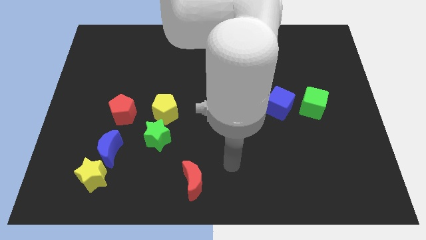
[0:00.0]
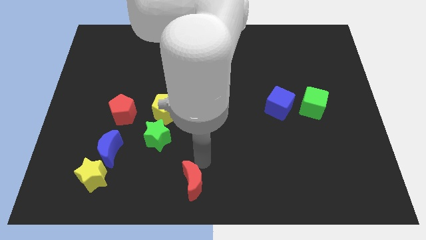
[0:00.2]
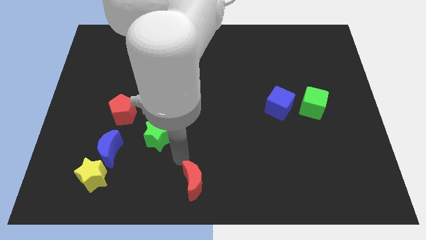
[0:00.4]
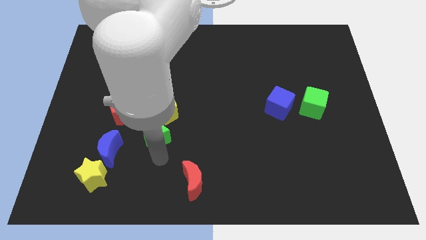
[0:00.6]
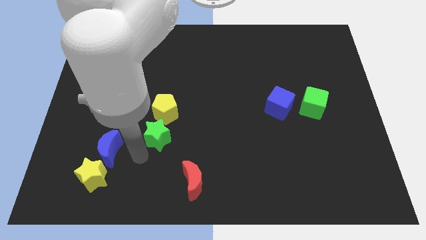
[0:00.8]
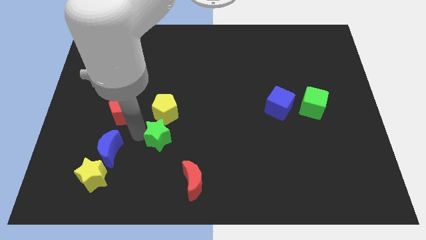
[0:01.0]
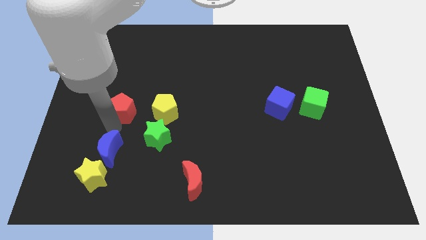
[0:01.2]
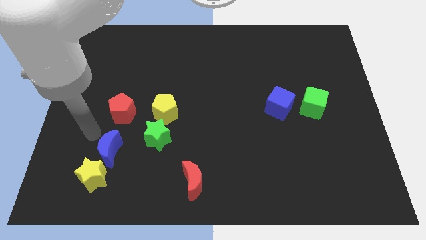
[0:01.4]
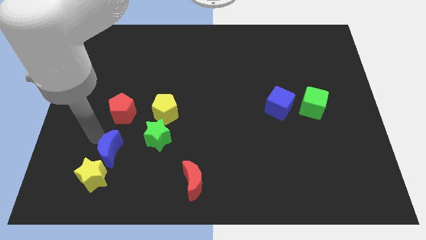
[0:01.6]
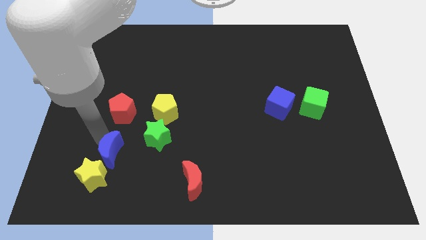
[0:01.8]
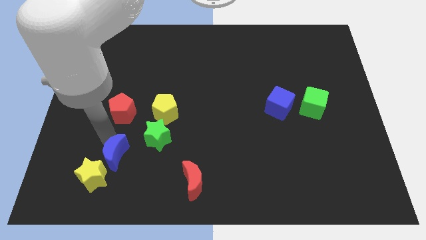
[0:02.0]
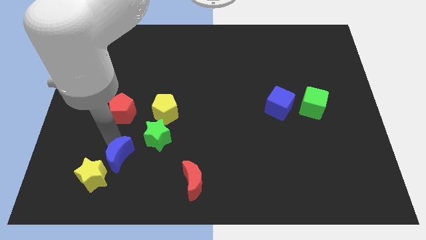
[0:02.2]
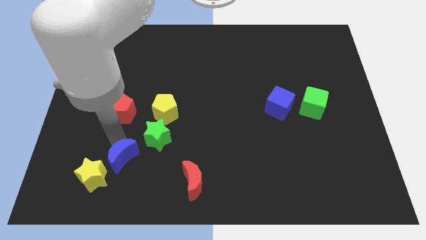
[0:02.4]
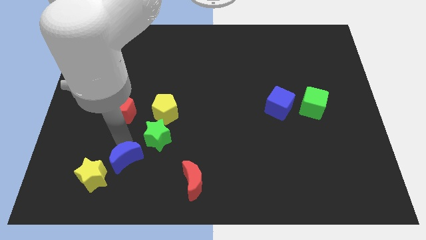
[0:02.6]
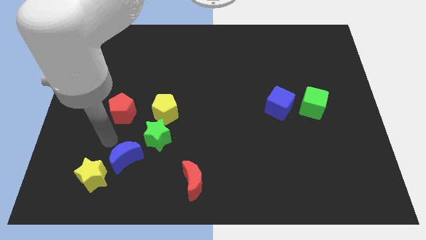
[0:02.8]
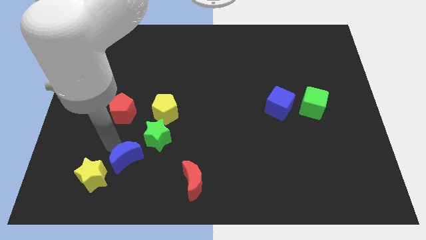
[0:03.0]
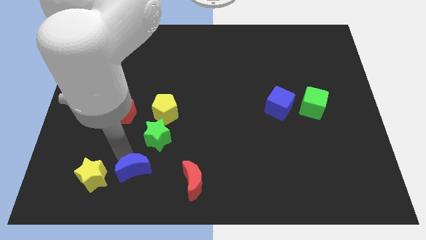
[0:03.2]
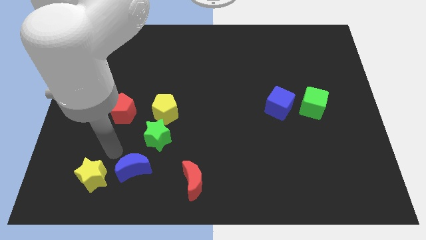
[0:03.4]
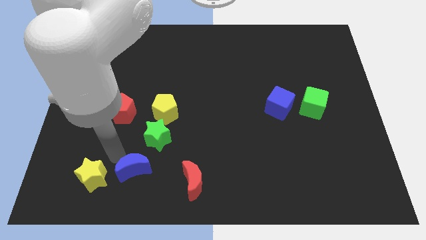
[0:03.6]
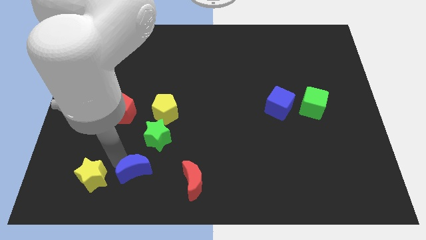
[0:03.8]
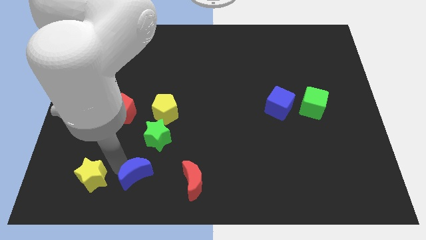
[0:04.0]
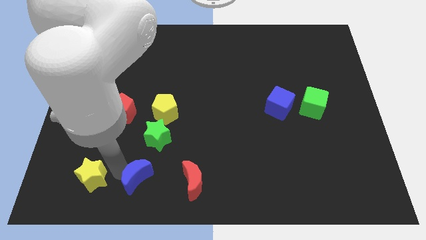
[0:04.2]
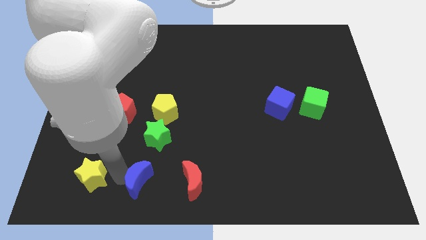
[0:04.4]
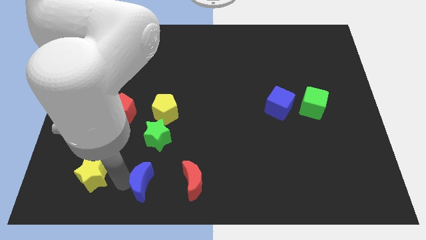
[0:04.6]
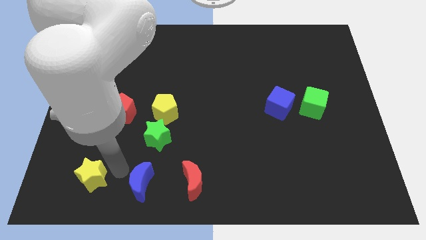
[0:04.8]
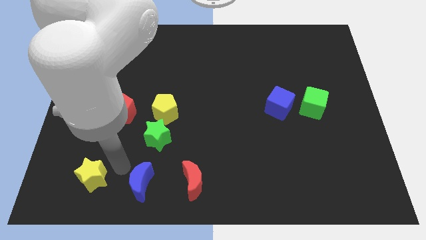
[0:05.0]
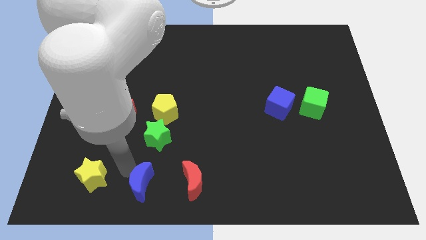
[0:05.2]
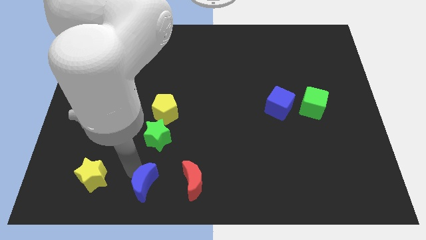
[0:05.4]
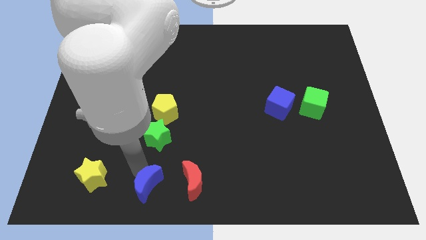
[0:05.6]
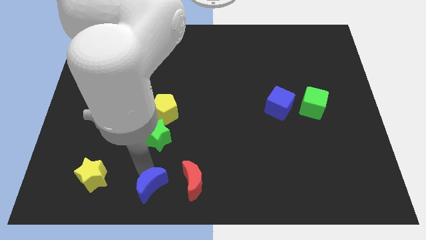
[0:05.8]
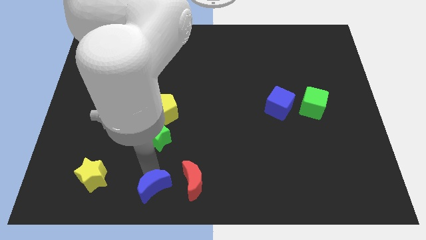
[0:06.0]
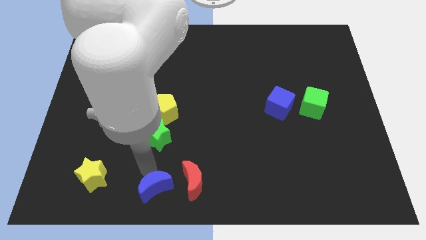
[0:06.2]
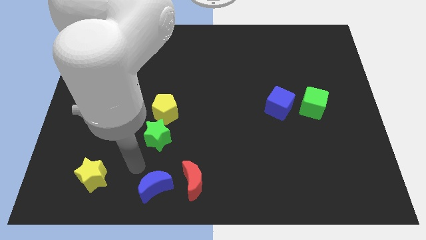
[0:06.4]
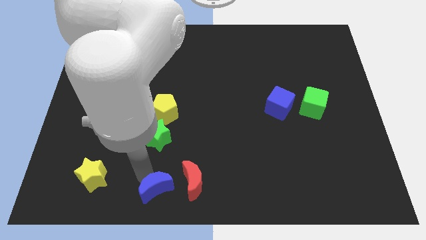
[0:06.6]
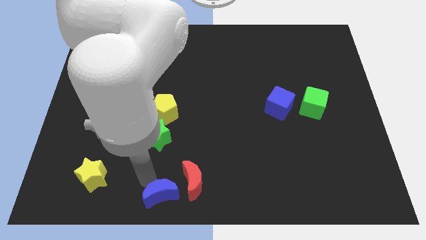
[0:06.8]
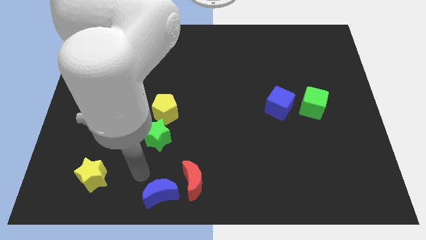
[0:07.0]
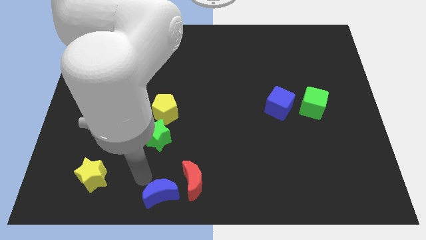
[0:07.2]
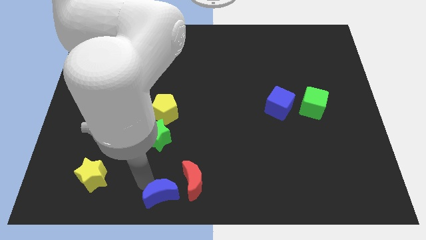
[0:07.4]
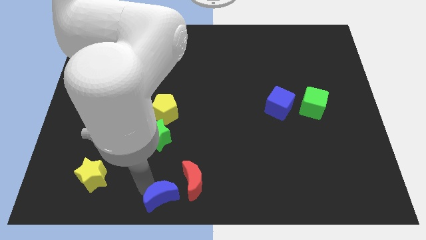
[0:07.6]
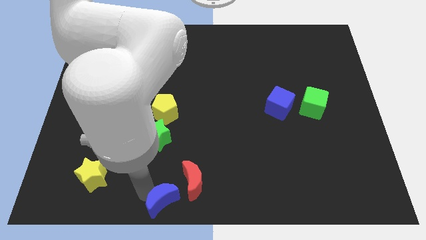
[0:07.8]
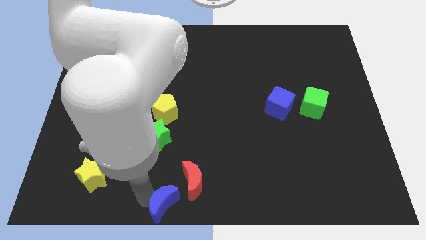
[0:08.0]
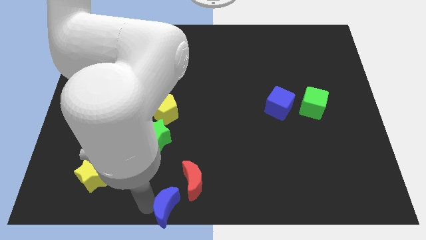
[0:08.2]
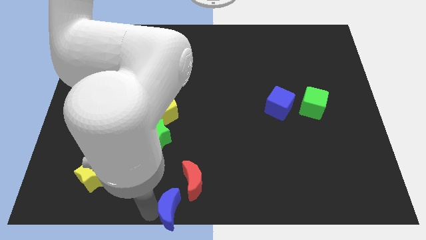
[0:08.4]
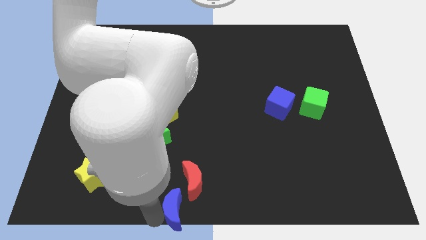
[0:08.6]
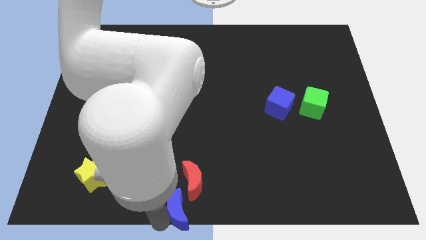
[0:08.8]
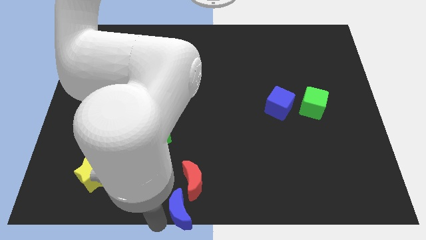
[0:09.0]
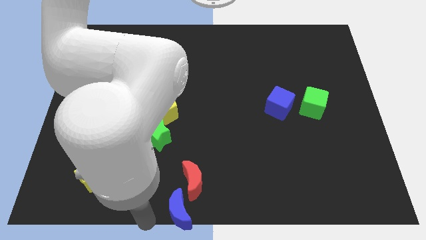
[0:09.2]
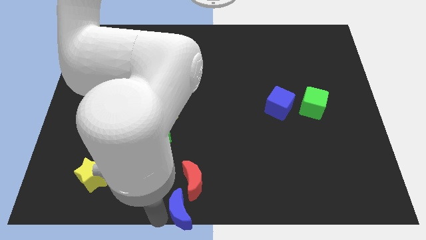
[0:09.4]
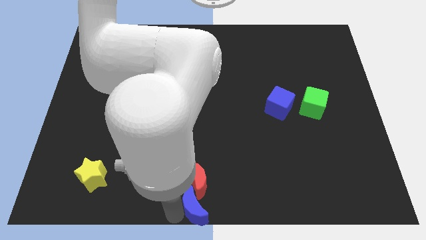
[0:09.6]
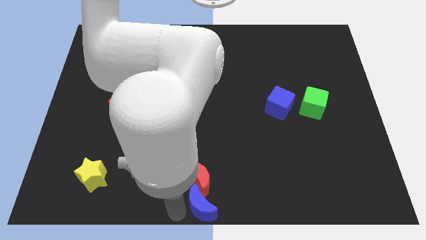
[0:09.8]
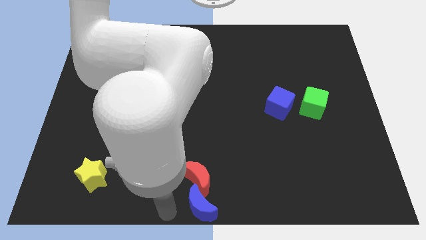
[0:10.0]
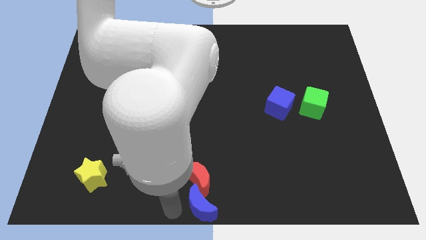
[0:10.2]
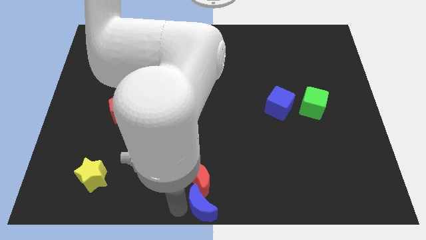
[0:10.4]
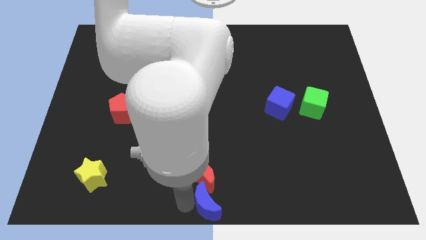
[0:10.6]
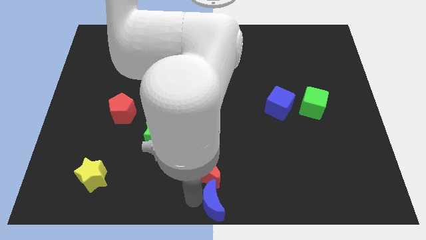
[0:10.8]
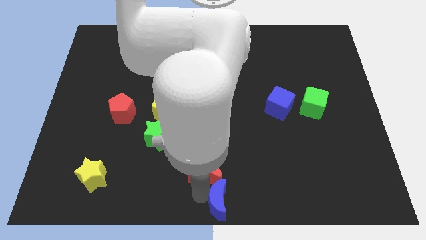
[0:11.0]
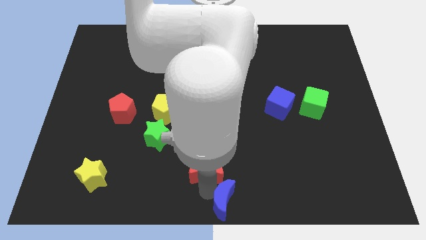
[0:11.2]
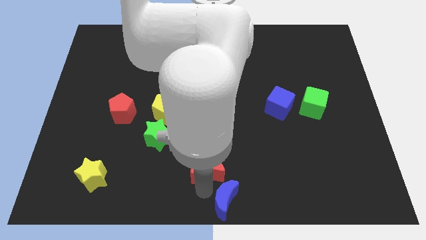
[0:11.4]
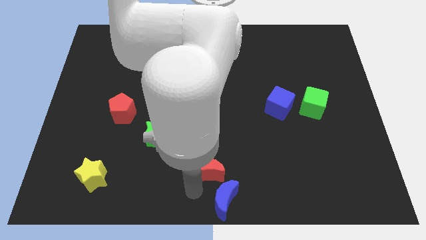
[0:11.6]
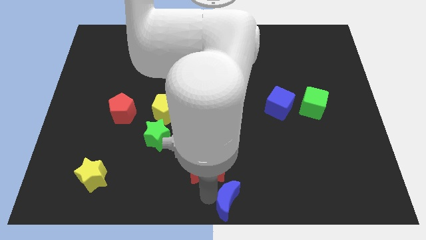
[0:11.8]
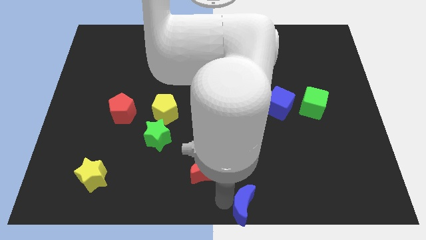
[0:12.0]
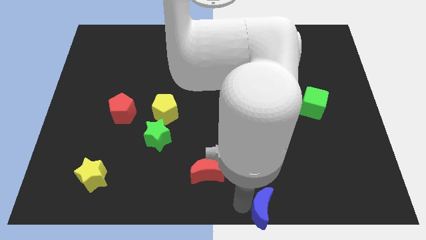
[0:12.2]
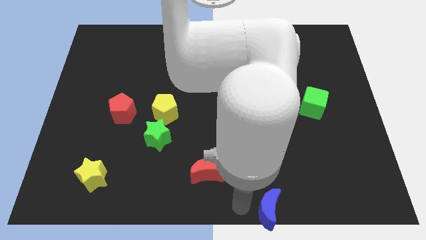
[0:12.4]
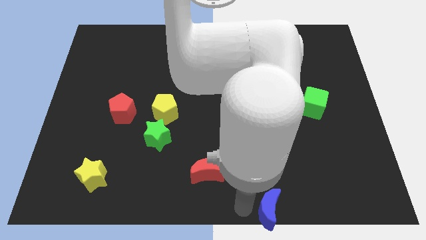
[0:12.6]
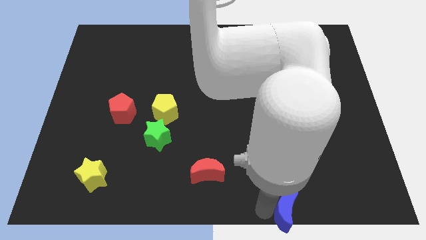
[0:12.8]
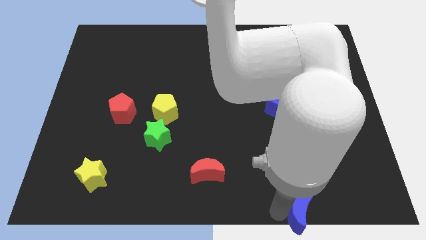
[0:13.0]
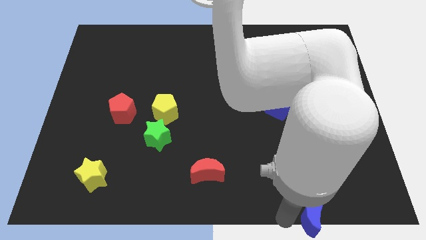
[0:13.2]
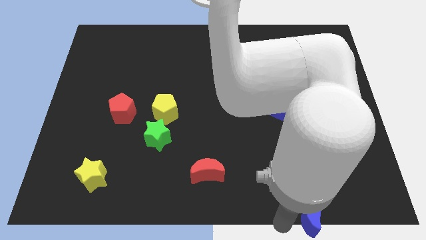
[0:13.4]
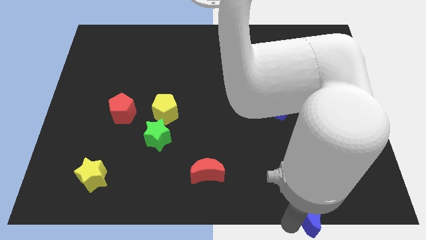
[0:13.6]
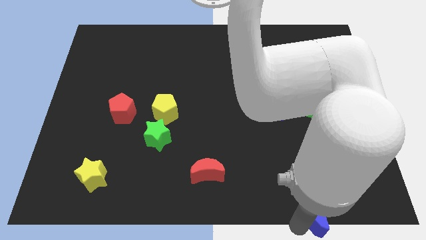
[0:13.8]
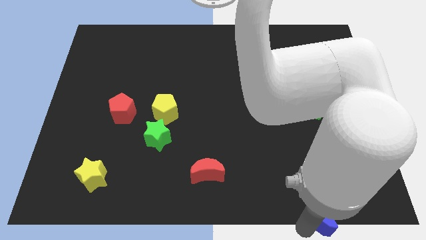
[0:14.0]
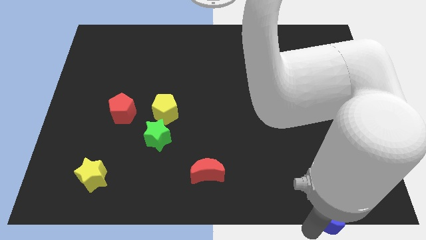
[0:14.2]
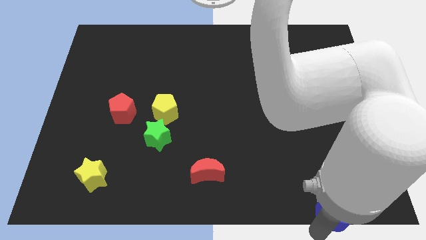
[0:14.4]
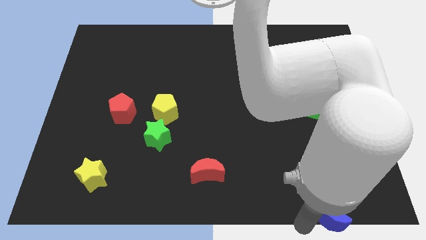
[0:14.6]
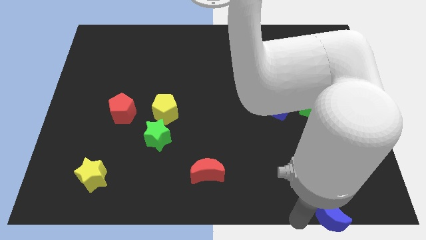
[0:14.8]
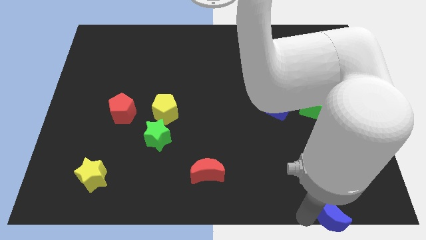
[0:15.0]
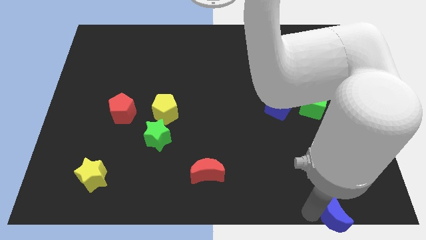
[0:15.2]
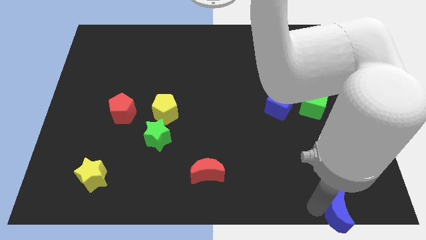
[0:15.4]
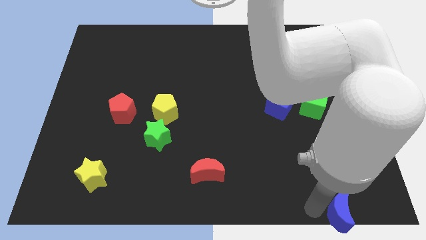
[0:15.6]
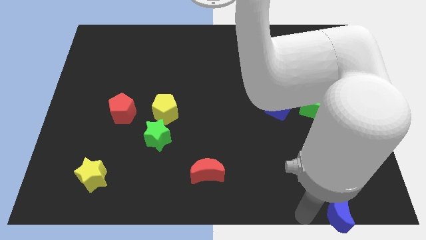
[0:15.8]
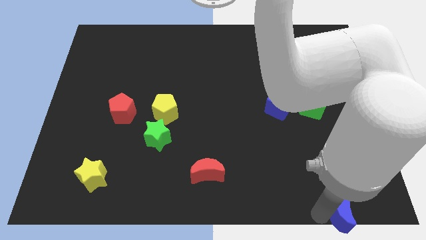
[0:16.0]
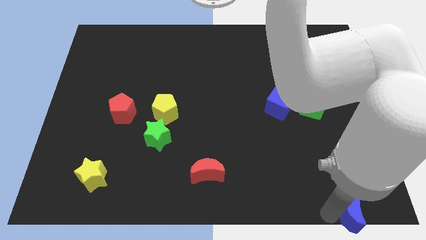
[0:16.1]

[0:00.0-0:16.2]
push the blue moon to the lower right corner

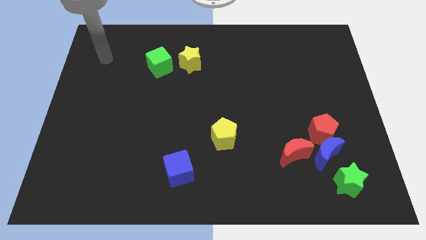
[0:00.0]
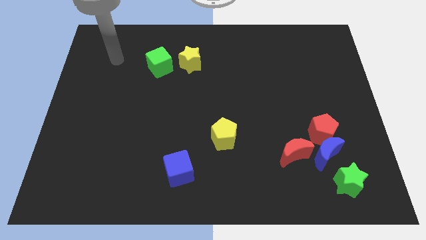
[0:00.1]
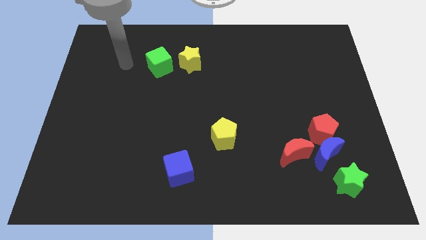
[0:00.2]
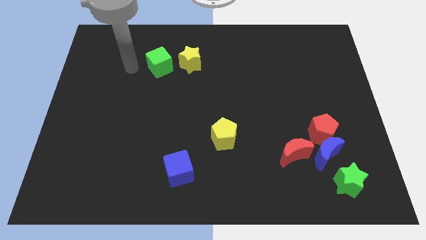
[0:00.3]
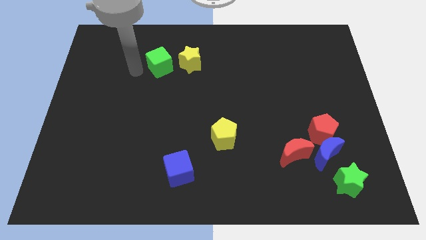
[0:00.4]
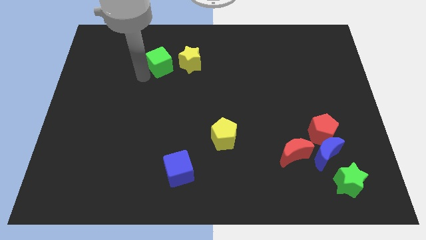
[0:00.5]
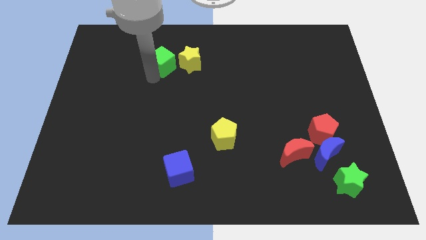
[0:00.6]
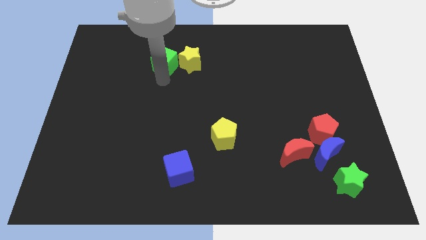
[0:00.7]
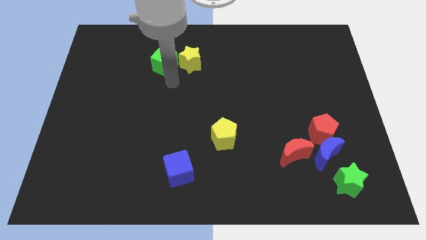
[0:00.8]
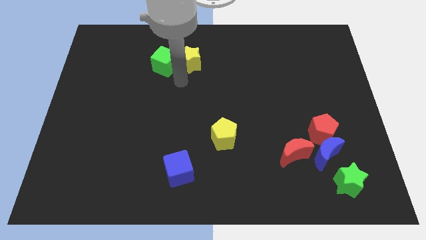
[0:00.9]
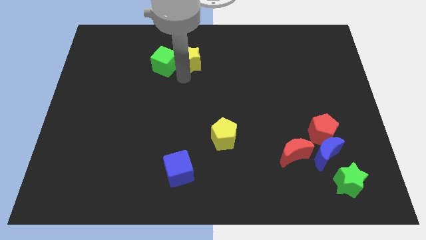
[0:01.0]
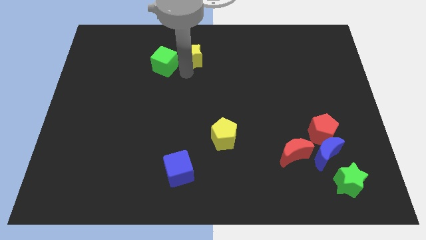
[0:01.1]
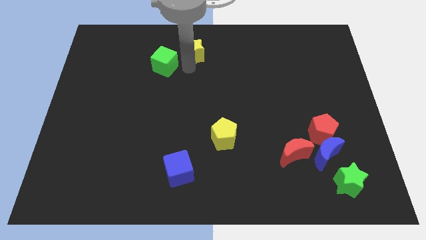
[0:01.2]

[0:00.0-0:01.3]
put the yellow star to the towards your base
